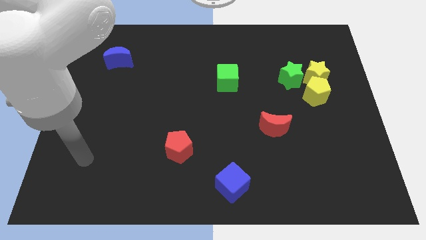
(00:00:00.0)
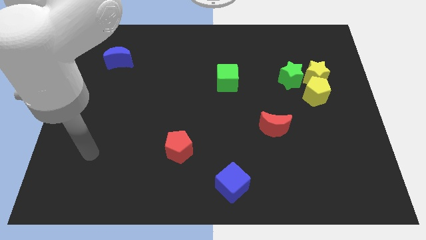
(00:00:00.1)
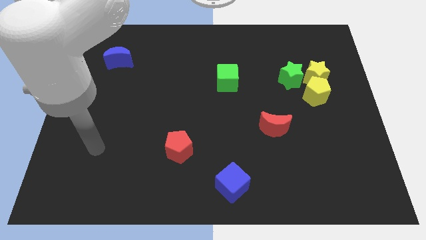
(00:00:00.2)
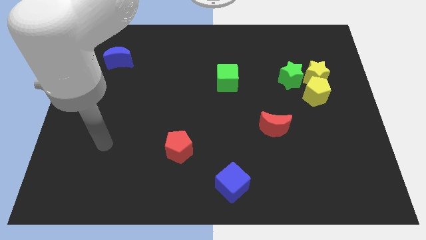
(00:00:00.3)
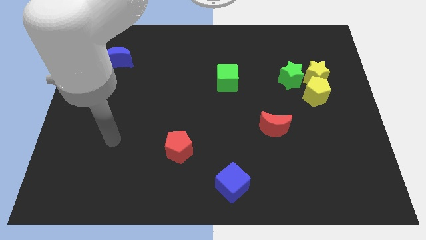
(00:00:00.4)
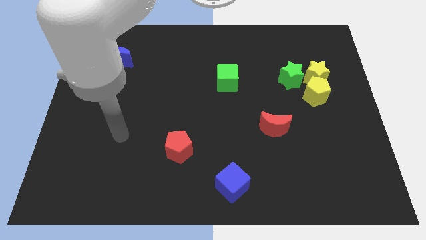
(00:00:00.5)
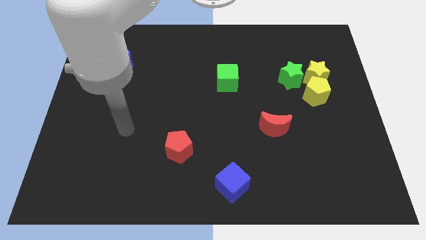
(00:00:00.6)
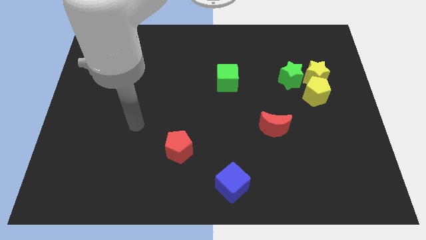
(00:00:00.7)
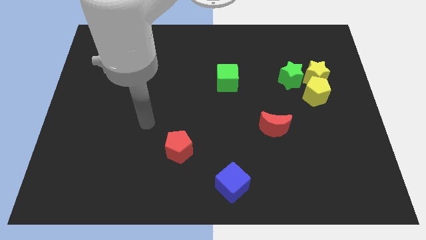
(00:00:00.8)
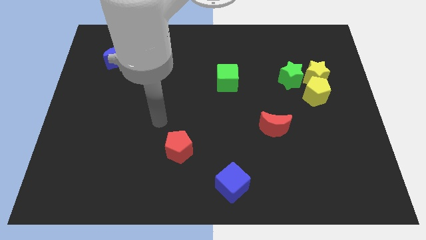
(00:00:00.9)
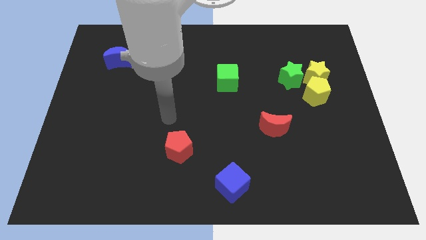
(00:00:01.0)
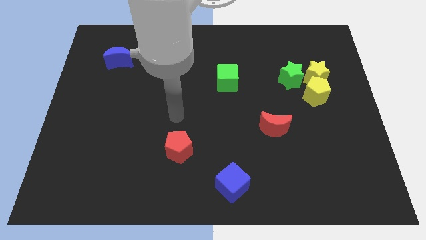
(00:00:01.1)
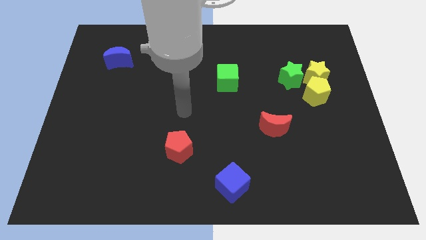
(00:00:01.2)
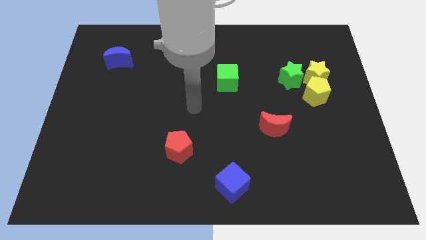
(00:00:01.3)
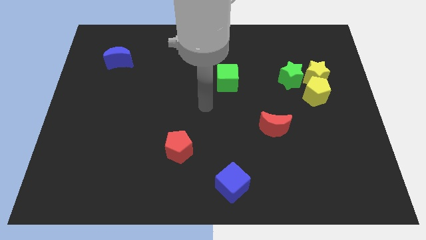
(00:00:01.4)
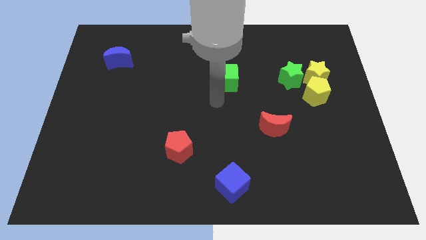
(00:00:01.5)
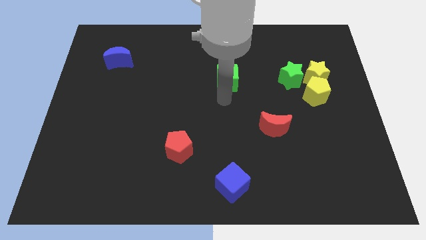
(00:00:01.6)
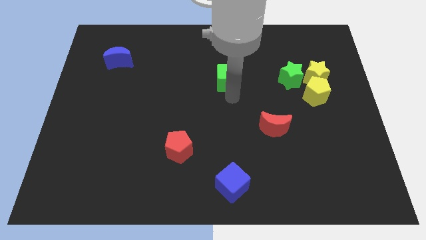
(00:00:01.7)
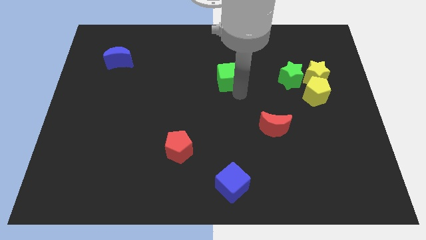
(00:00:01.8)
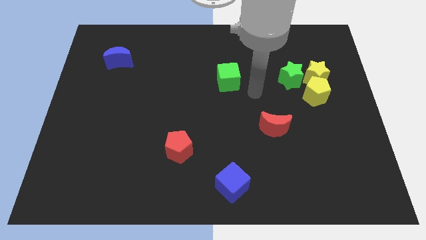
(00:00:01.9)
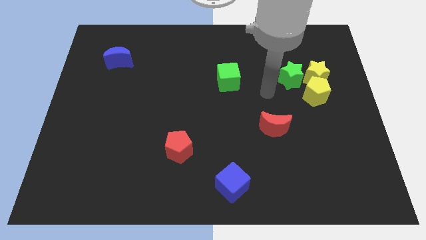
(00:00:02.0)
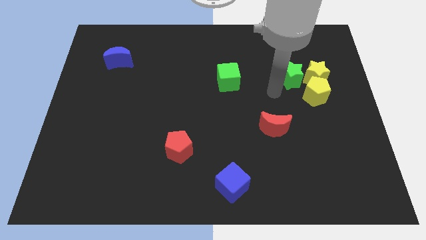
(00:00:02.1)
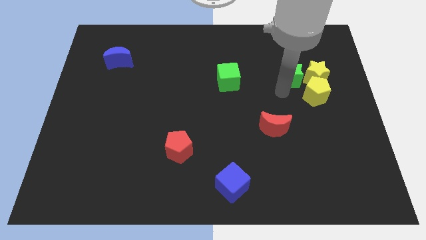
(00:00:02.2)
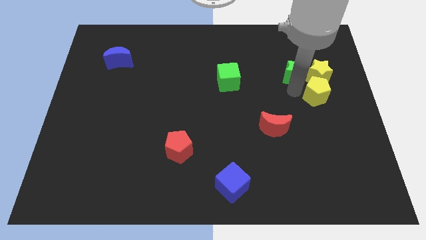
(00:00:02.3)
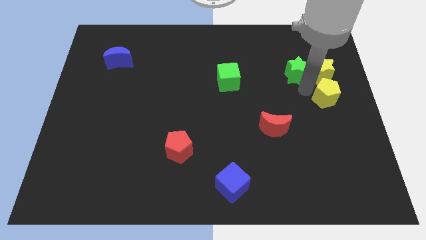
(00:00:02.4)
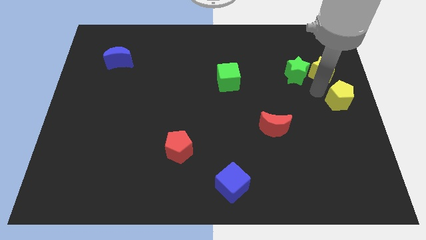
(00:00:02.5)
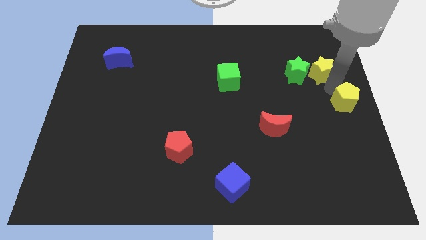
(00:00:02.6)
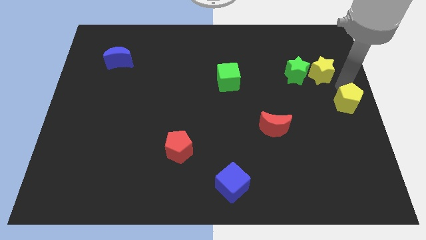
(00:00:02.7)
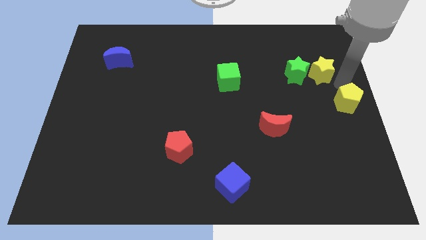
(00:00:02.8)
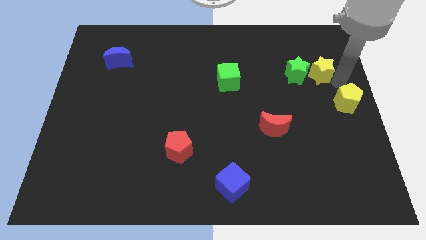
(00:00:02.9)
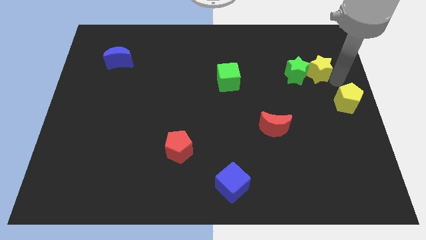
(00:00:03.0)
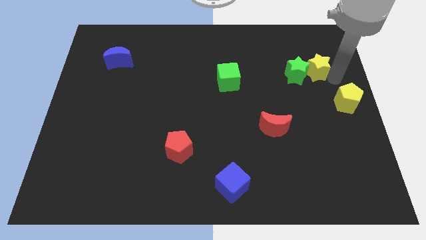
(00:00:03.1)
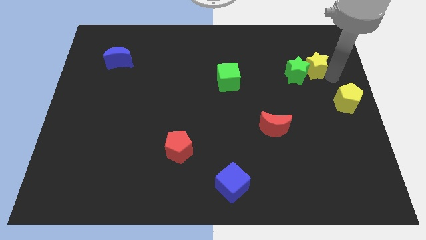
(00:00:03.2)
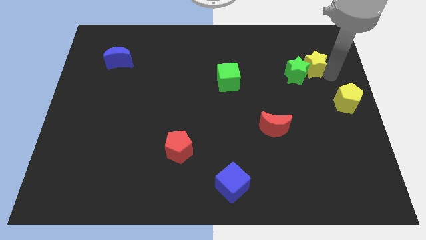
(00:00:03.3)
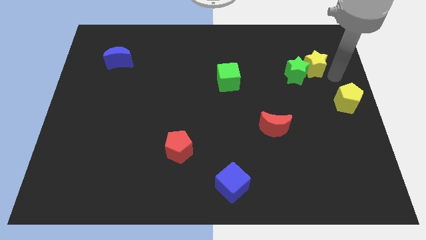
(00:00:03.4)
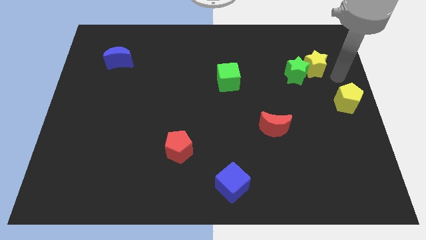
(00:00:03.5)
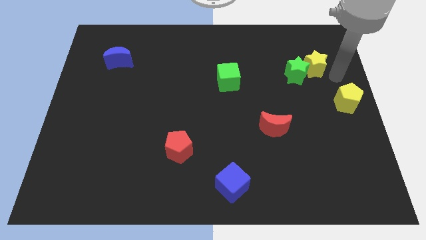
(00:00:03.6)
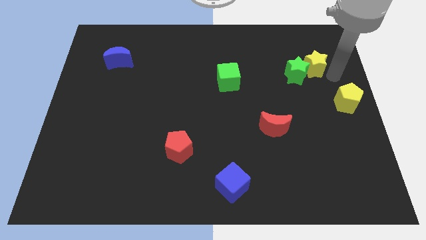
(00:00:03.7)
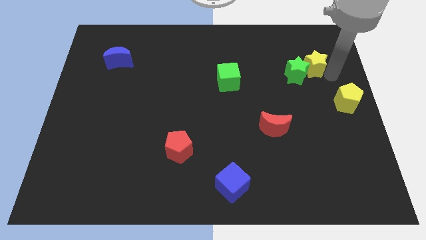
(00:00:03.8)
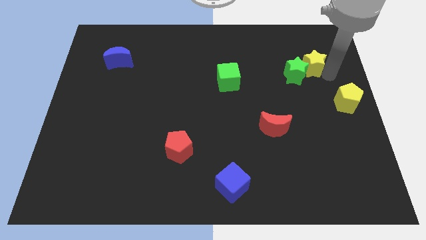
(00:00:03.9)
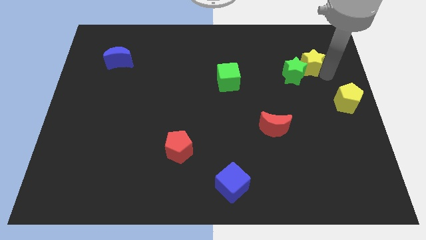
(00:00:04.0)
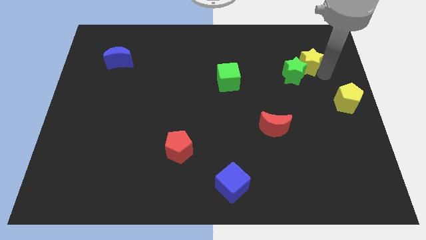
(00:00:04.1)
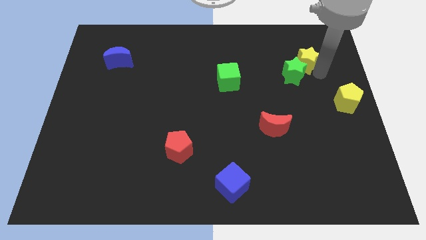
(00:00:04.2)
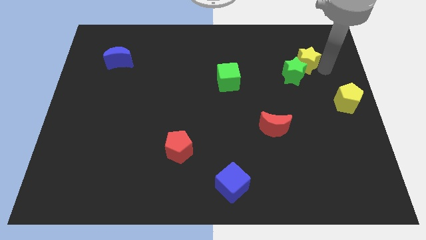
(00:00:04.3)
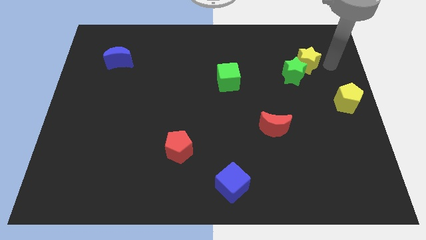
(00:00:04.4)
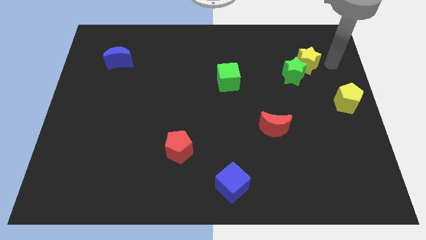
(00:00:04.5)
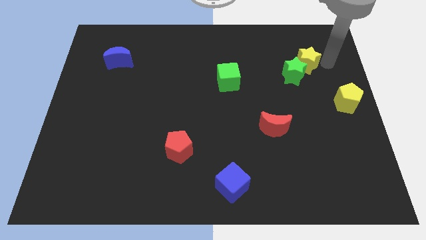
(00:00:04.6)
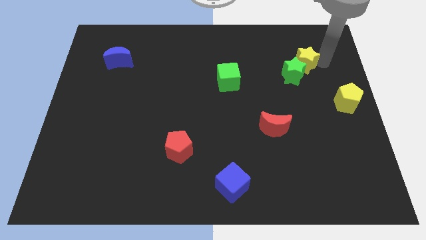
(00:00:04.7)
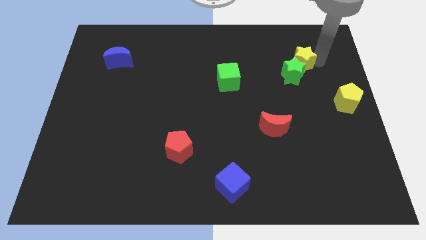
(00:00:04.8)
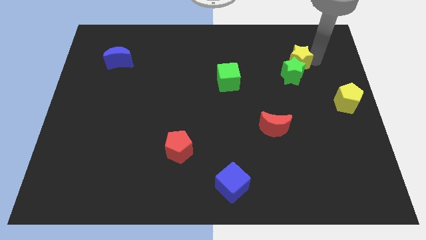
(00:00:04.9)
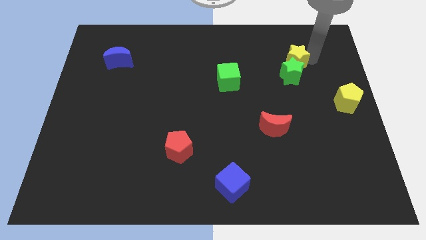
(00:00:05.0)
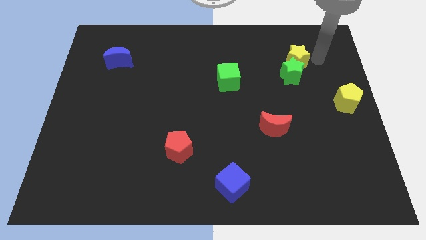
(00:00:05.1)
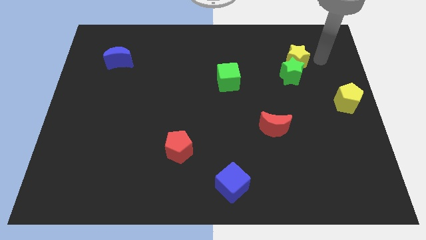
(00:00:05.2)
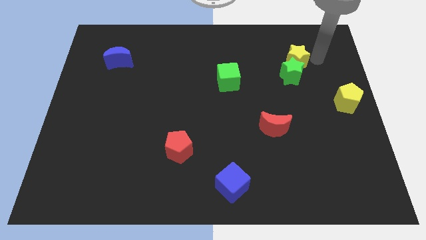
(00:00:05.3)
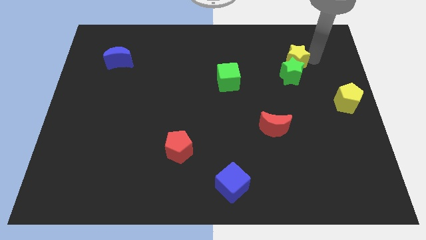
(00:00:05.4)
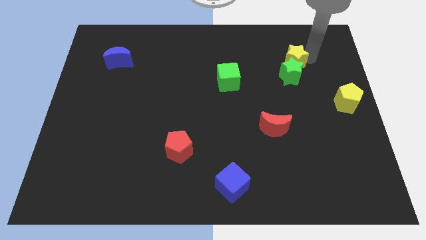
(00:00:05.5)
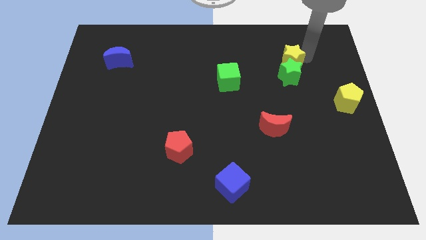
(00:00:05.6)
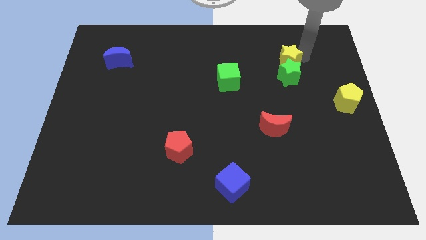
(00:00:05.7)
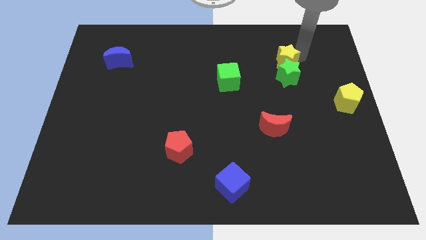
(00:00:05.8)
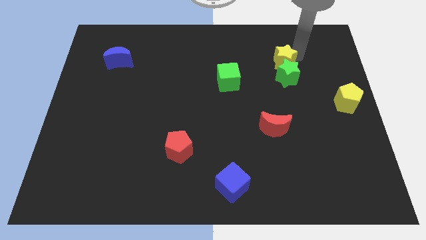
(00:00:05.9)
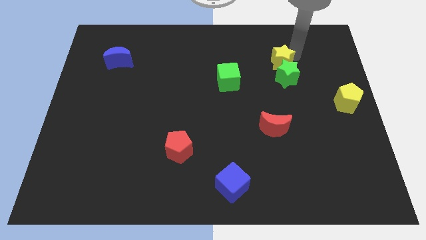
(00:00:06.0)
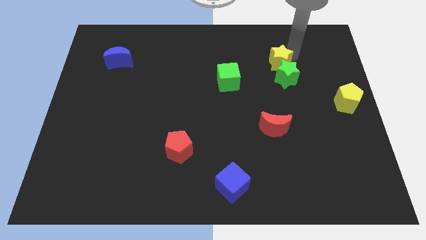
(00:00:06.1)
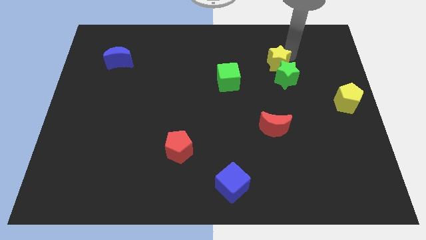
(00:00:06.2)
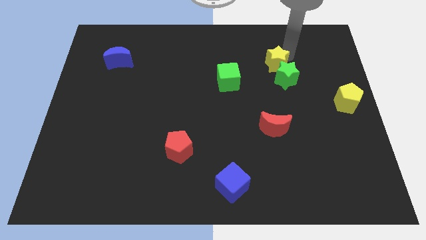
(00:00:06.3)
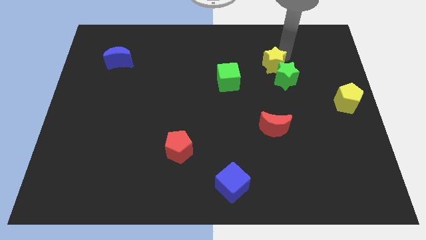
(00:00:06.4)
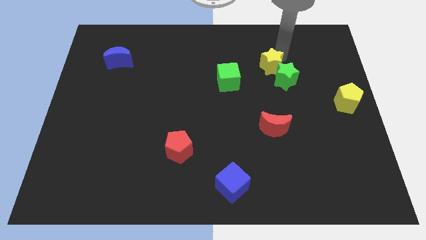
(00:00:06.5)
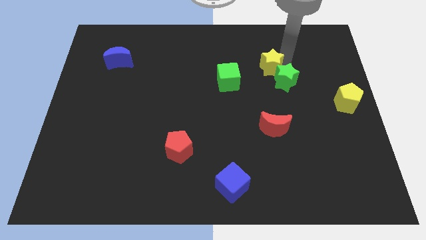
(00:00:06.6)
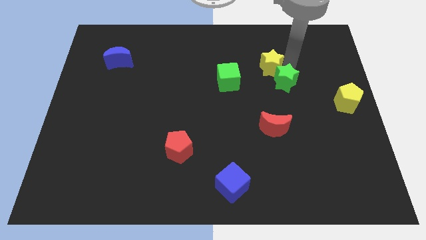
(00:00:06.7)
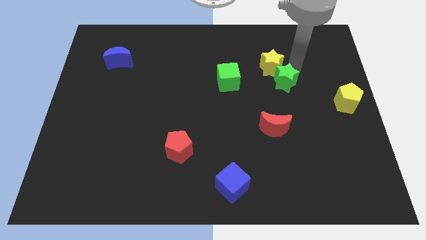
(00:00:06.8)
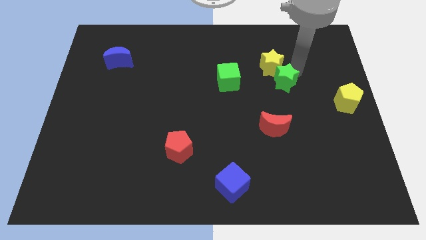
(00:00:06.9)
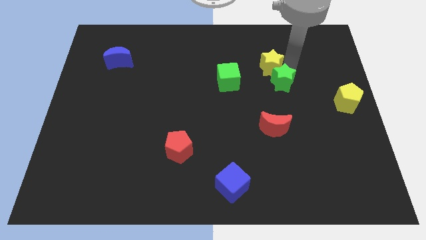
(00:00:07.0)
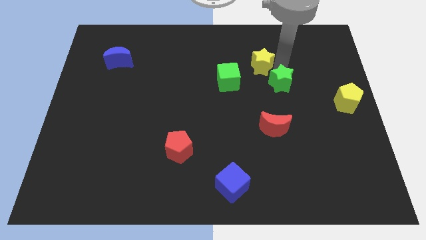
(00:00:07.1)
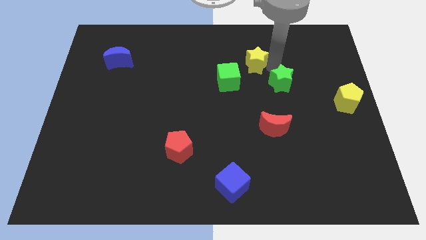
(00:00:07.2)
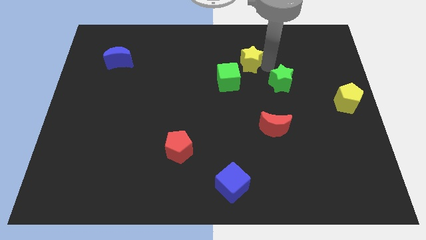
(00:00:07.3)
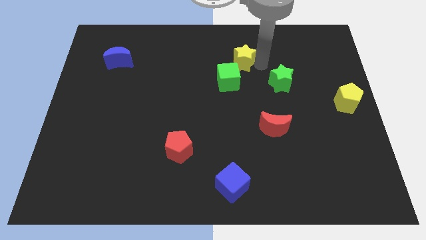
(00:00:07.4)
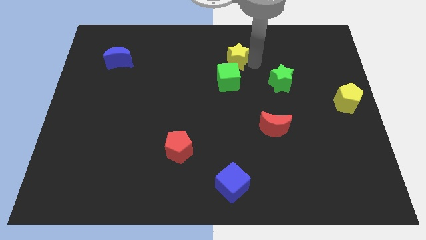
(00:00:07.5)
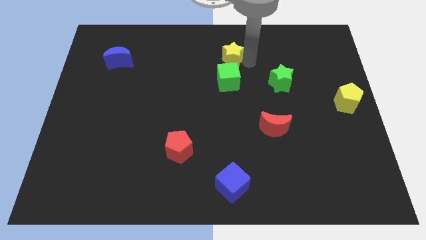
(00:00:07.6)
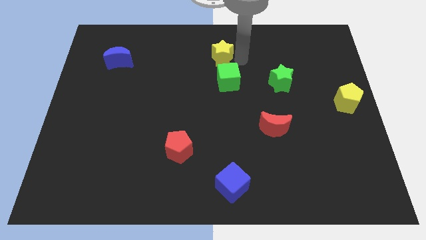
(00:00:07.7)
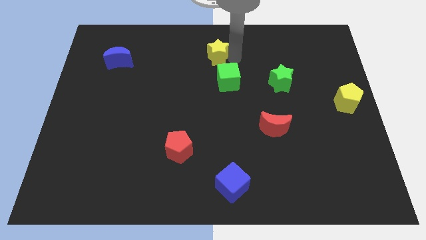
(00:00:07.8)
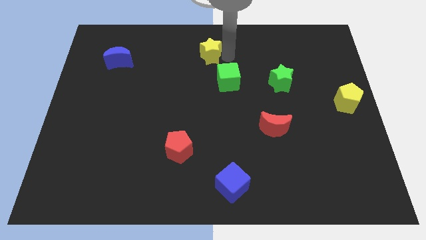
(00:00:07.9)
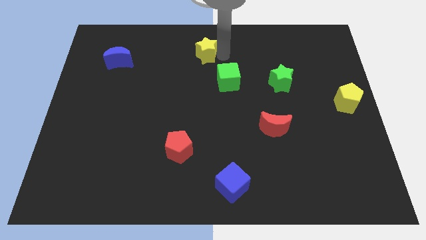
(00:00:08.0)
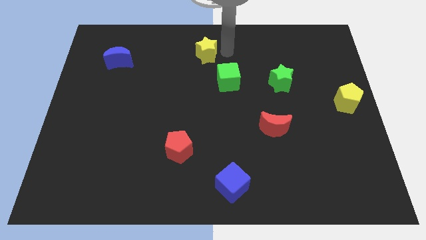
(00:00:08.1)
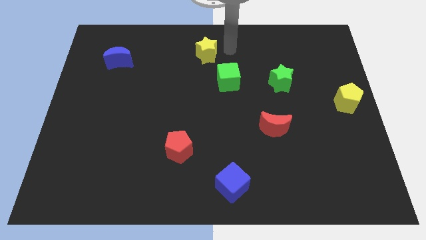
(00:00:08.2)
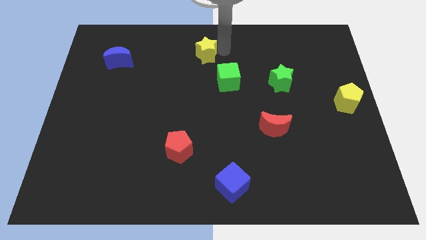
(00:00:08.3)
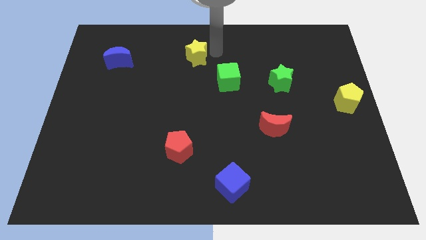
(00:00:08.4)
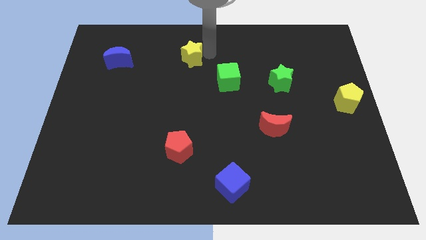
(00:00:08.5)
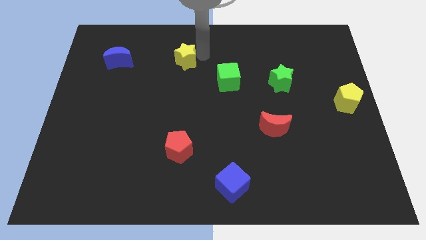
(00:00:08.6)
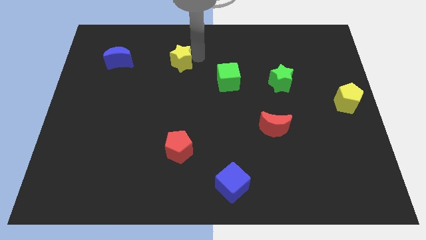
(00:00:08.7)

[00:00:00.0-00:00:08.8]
move the yellow star to the right of the blue moon
